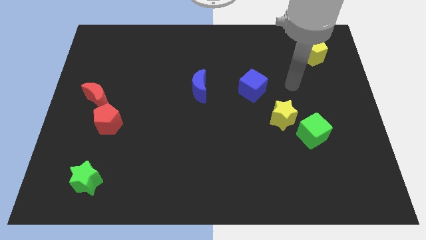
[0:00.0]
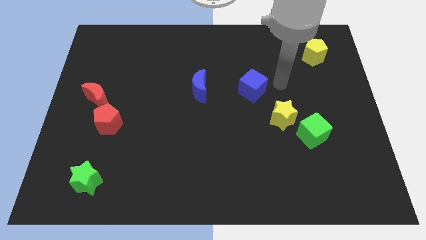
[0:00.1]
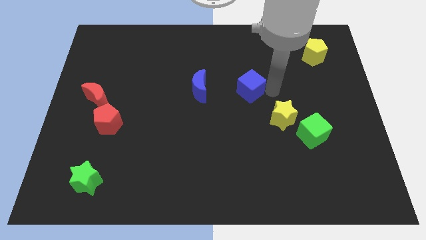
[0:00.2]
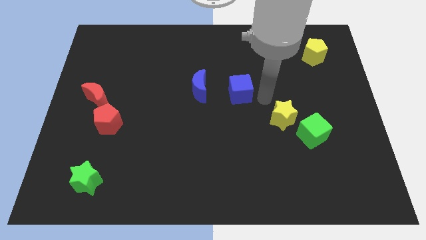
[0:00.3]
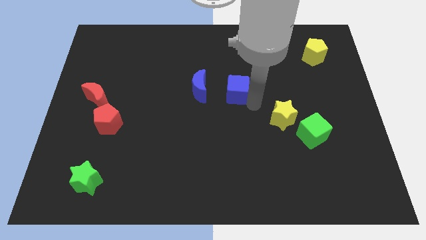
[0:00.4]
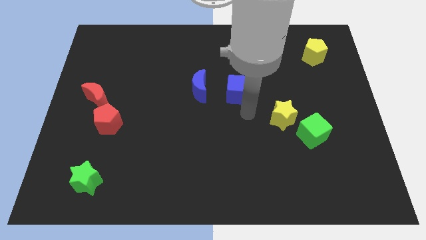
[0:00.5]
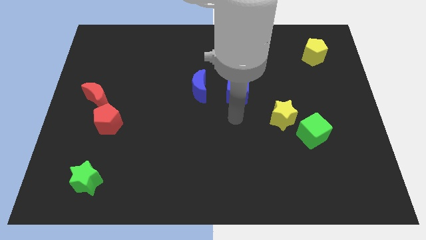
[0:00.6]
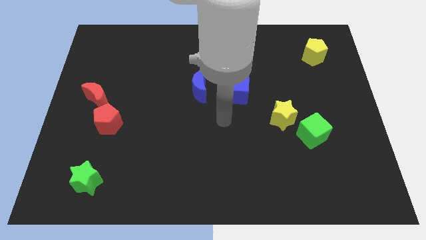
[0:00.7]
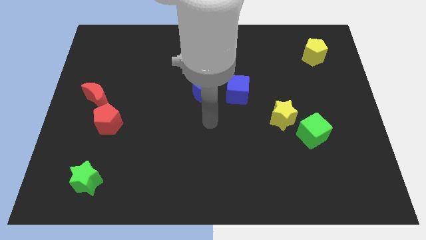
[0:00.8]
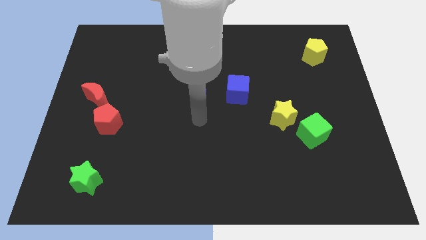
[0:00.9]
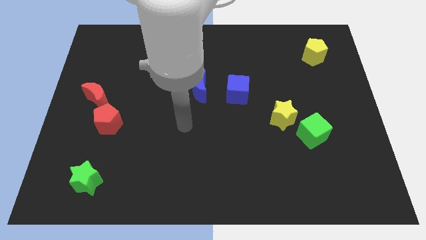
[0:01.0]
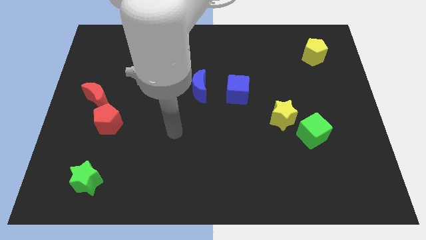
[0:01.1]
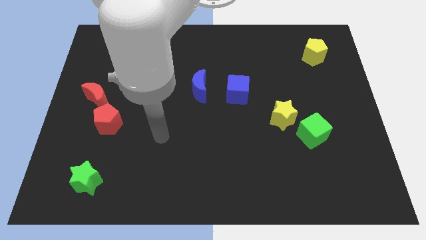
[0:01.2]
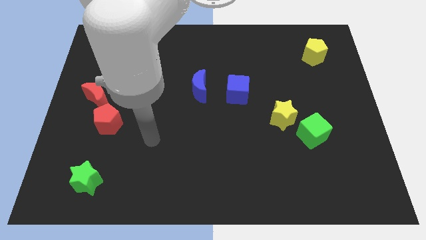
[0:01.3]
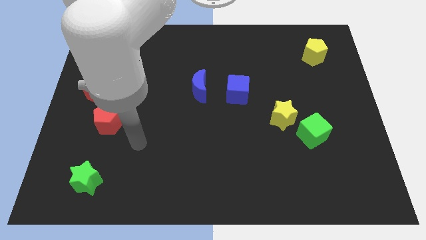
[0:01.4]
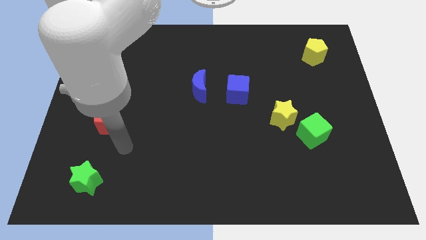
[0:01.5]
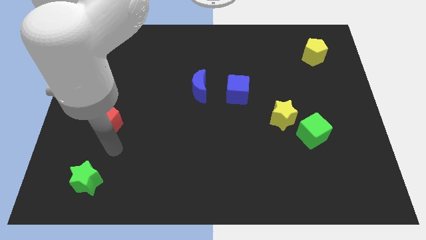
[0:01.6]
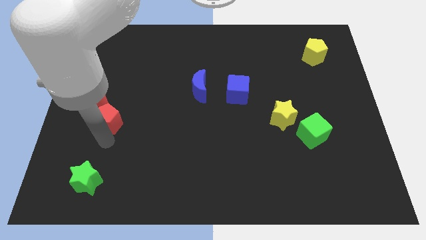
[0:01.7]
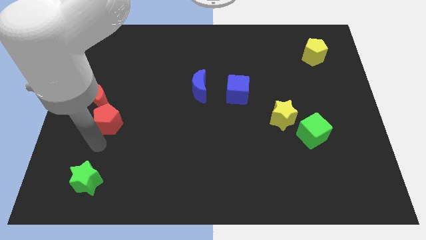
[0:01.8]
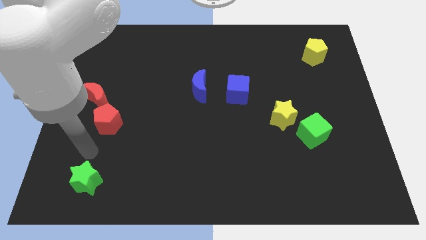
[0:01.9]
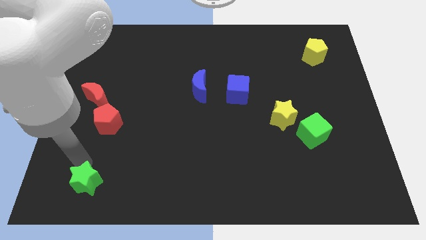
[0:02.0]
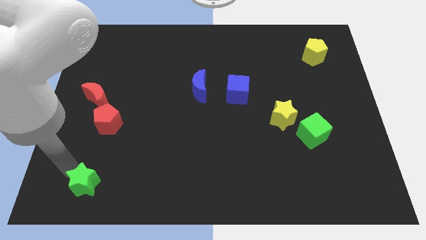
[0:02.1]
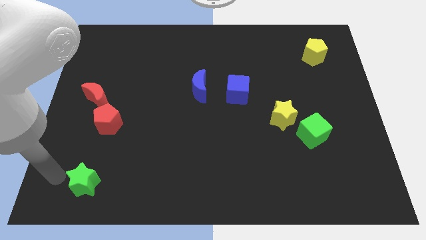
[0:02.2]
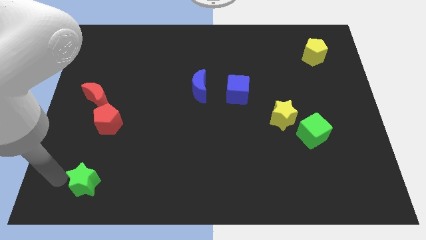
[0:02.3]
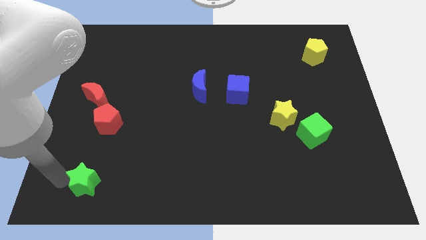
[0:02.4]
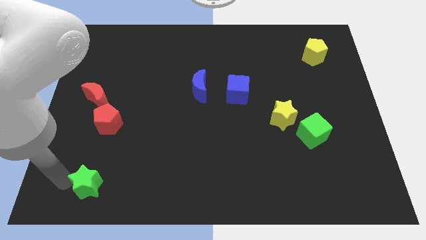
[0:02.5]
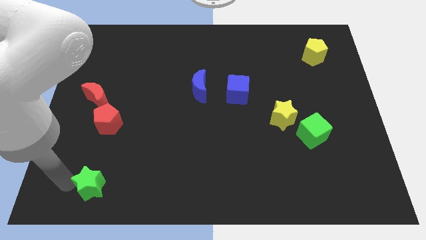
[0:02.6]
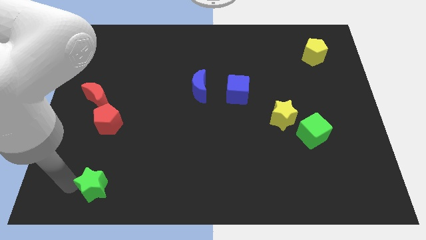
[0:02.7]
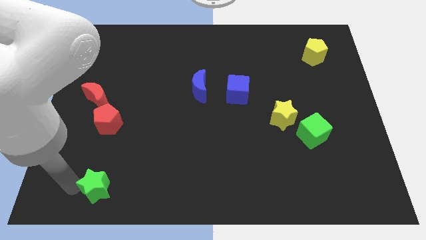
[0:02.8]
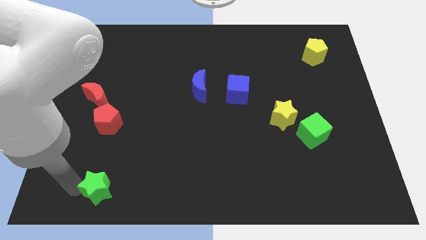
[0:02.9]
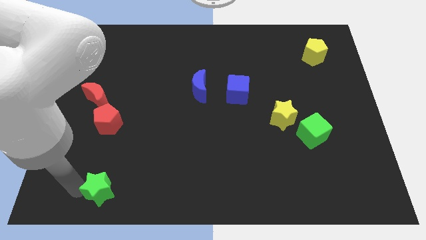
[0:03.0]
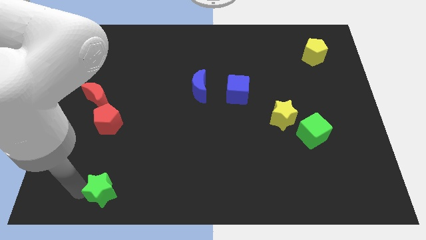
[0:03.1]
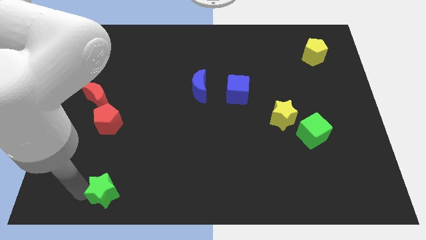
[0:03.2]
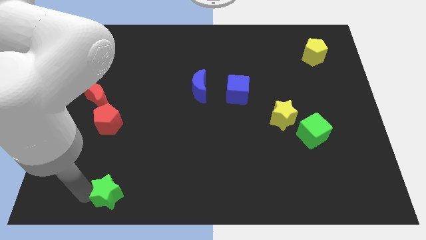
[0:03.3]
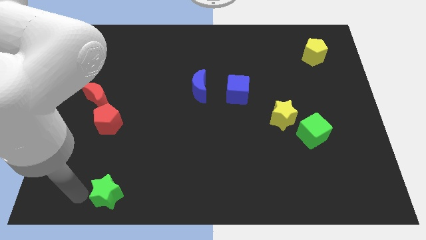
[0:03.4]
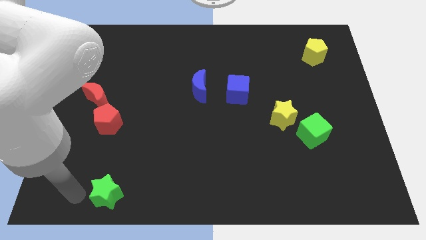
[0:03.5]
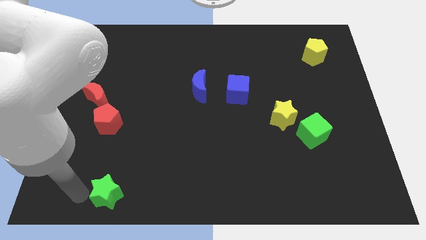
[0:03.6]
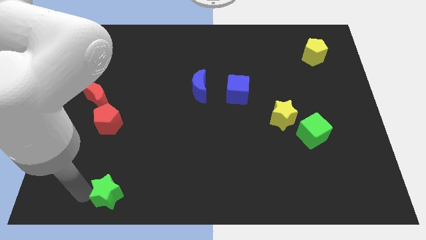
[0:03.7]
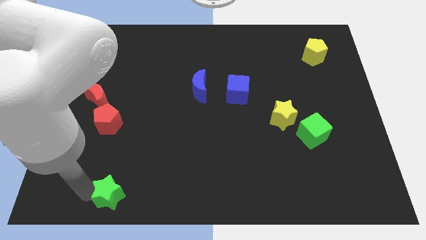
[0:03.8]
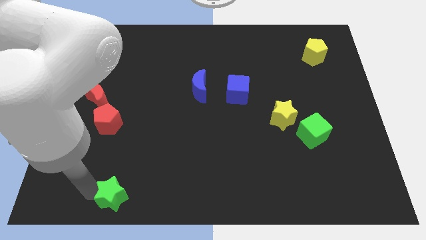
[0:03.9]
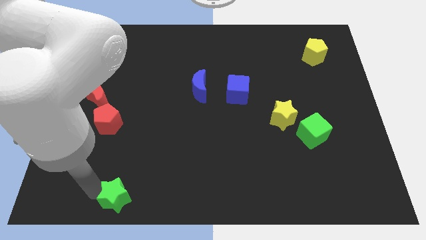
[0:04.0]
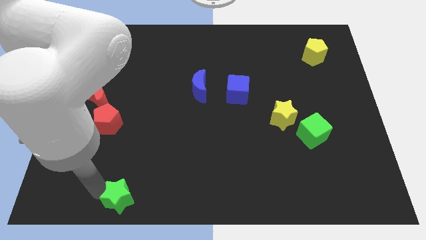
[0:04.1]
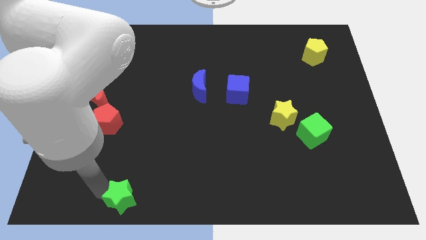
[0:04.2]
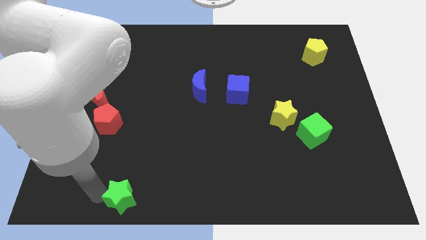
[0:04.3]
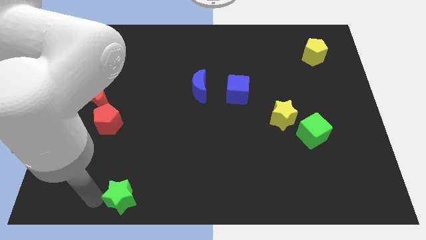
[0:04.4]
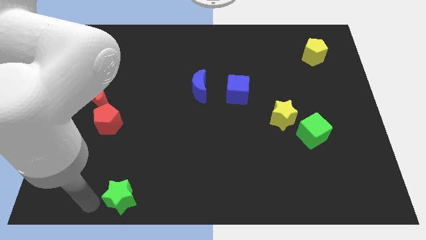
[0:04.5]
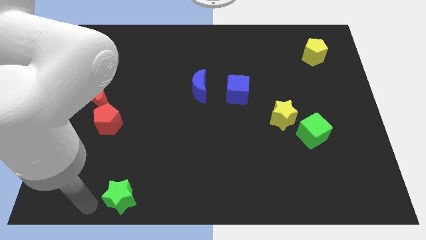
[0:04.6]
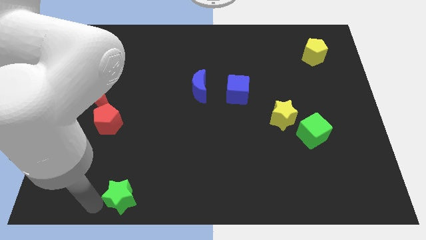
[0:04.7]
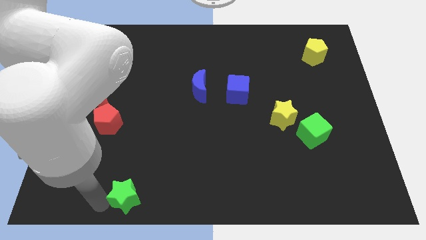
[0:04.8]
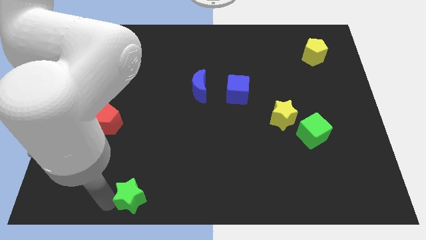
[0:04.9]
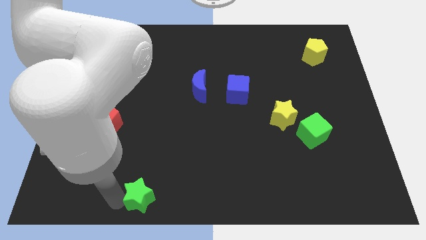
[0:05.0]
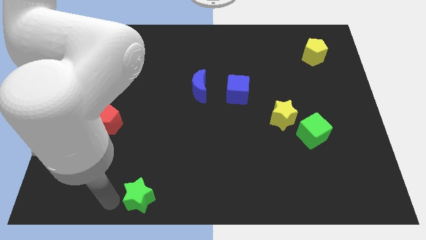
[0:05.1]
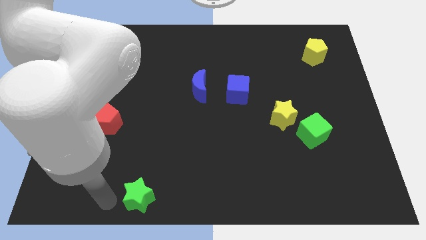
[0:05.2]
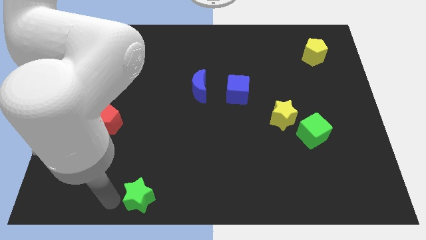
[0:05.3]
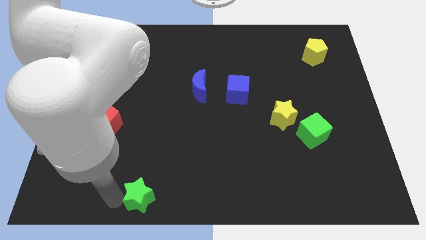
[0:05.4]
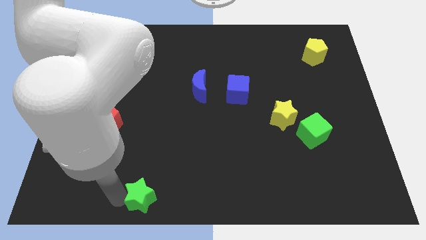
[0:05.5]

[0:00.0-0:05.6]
put the green star to the bottom side

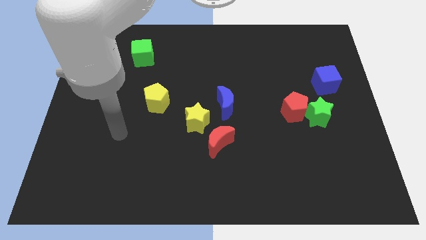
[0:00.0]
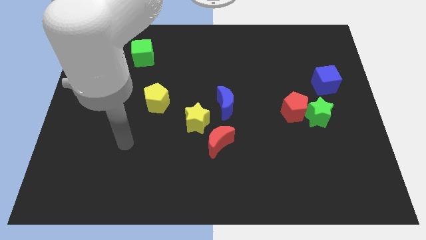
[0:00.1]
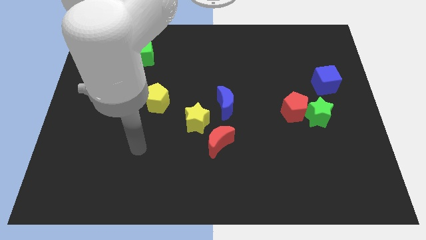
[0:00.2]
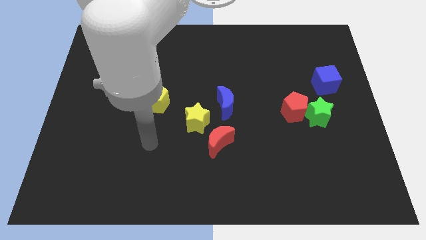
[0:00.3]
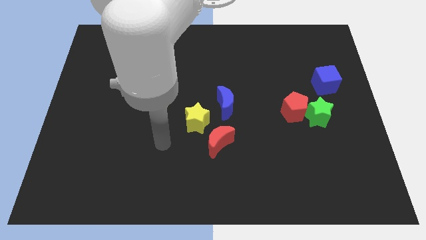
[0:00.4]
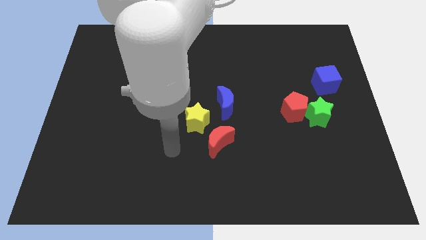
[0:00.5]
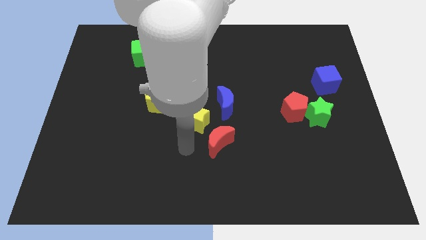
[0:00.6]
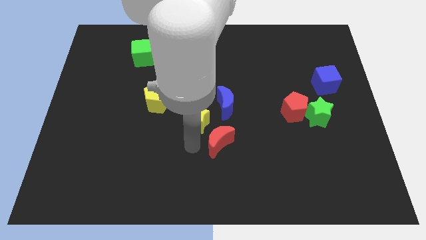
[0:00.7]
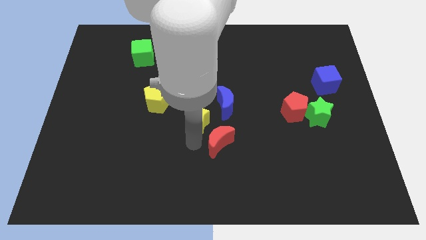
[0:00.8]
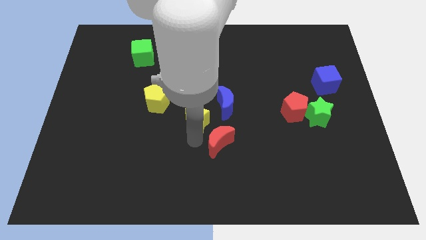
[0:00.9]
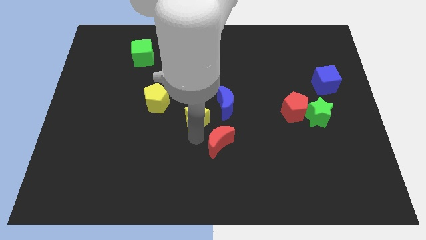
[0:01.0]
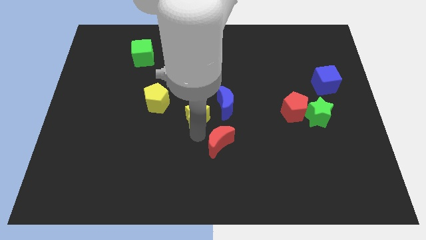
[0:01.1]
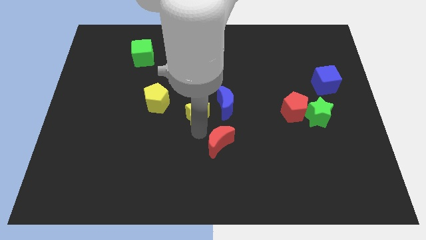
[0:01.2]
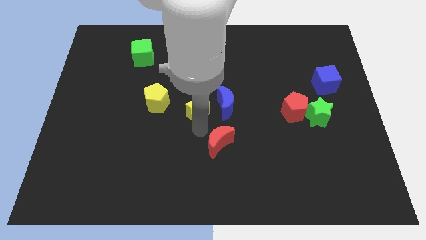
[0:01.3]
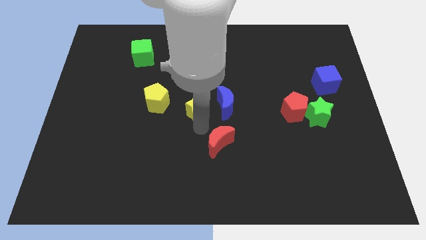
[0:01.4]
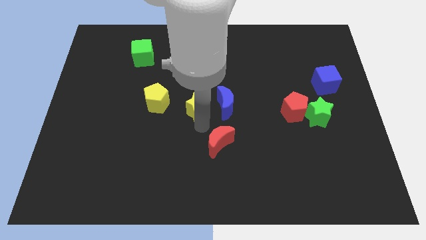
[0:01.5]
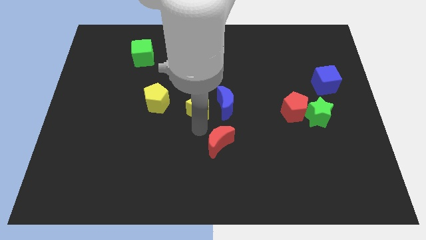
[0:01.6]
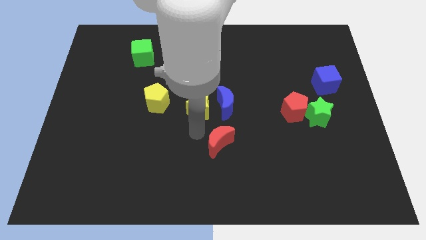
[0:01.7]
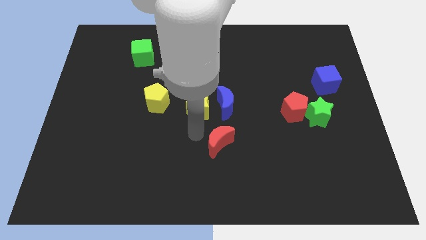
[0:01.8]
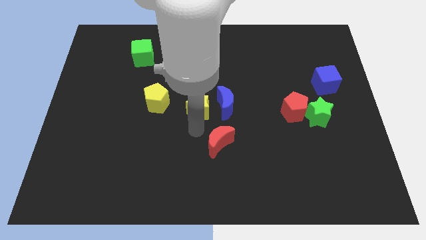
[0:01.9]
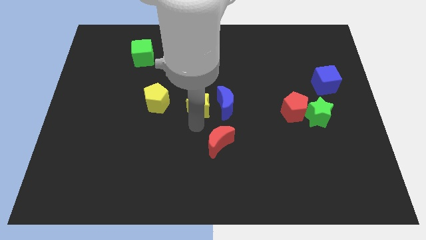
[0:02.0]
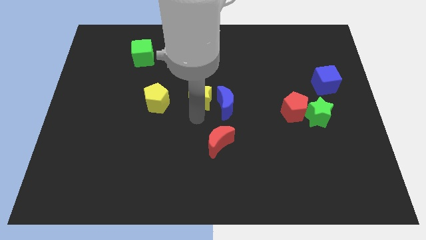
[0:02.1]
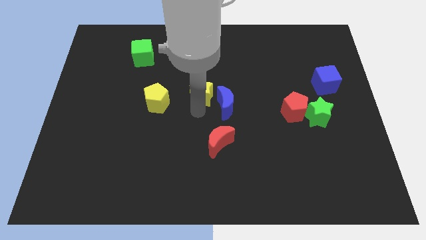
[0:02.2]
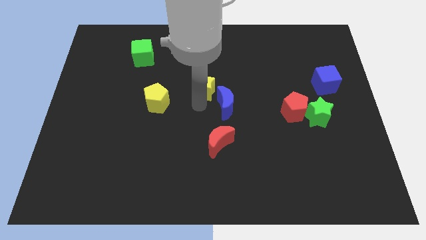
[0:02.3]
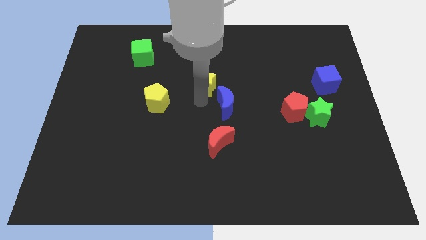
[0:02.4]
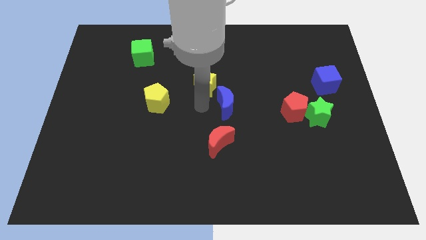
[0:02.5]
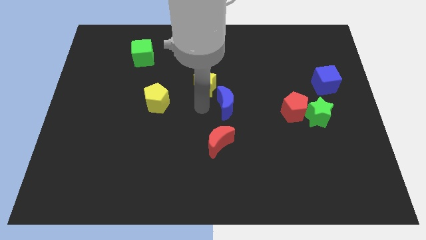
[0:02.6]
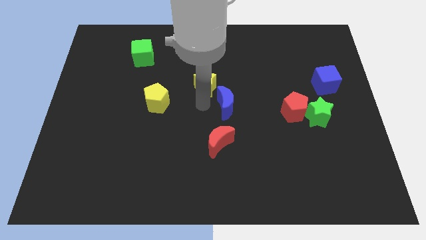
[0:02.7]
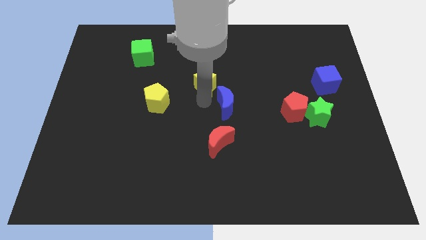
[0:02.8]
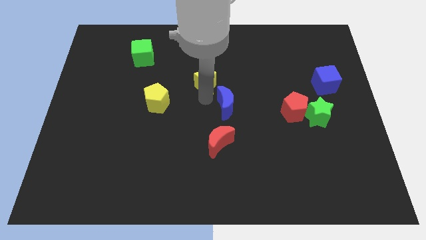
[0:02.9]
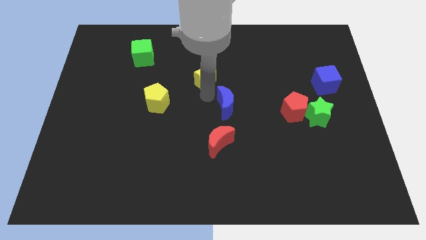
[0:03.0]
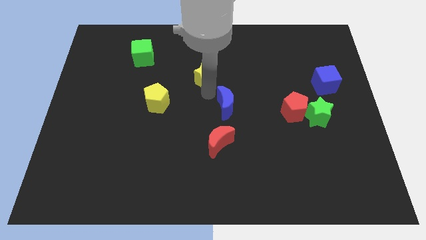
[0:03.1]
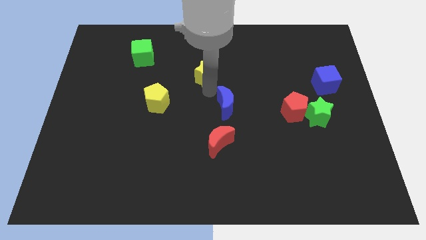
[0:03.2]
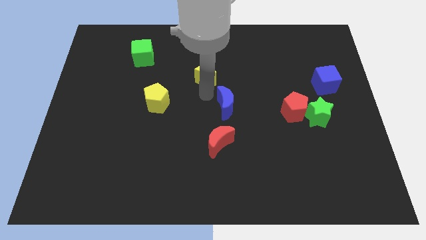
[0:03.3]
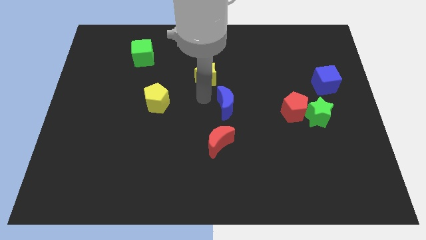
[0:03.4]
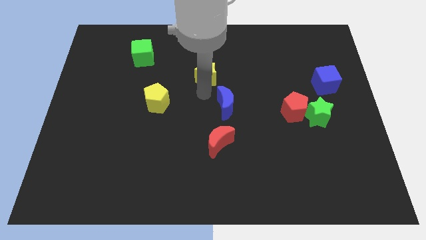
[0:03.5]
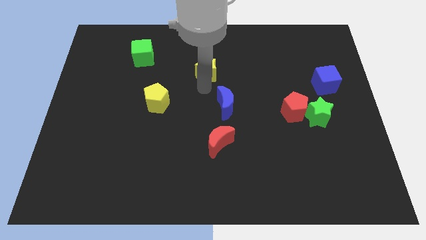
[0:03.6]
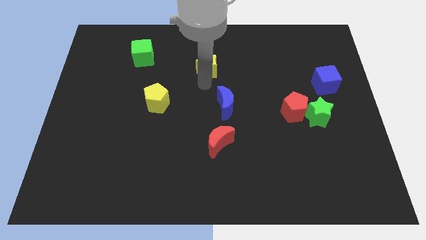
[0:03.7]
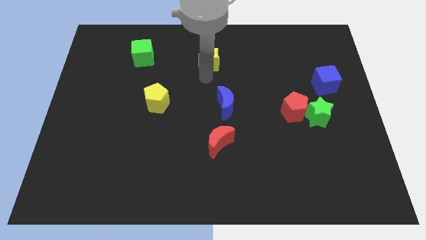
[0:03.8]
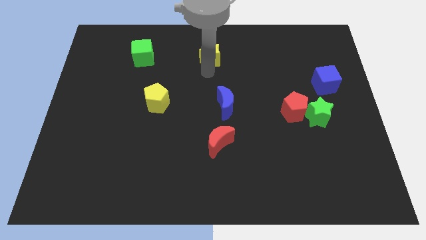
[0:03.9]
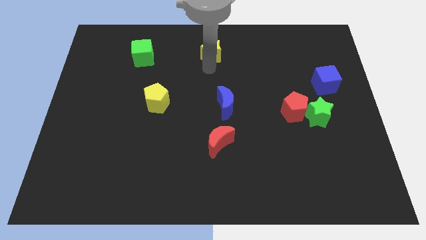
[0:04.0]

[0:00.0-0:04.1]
push the yellow star to the top
